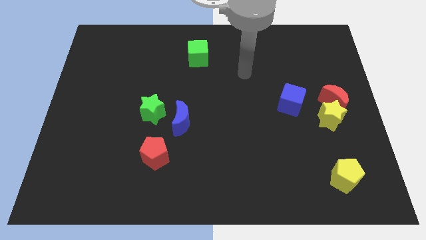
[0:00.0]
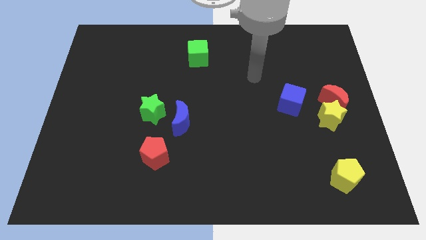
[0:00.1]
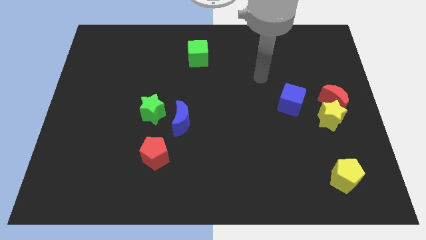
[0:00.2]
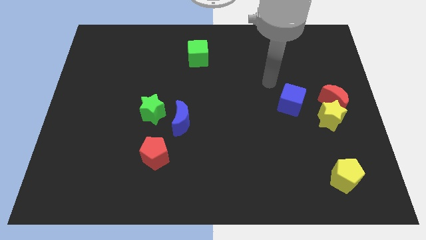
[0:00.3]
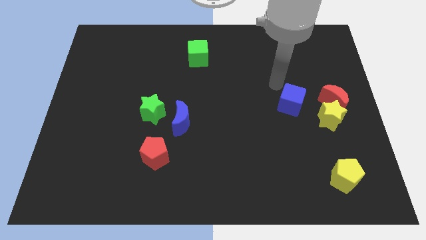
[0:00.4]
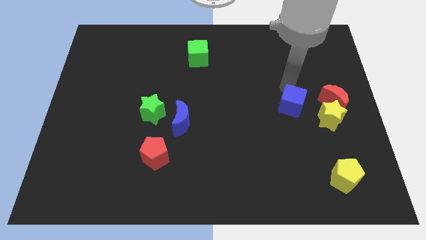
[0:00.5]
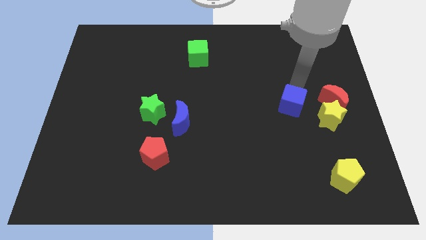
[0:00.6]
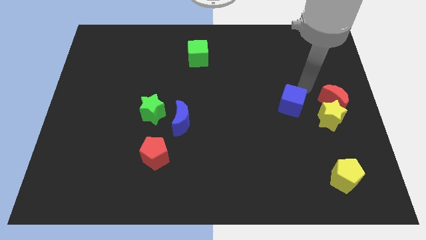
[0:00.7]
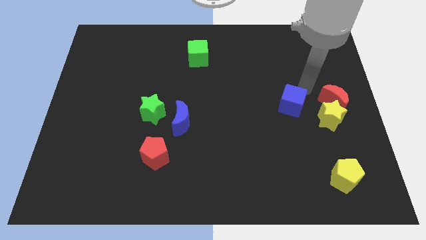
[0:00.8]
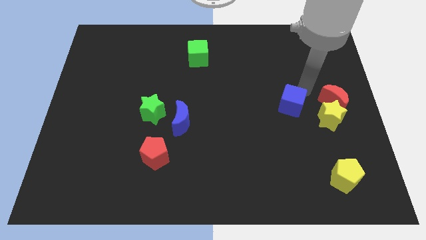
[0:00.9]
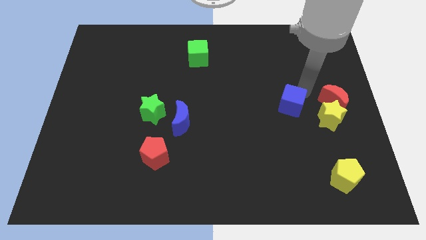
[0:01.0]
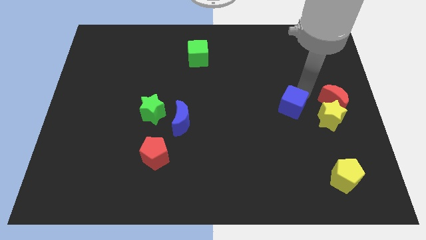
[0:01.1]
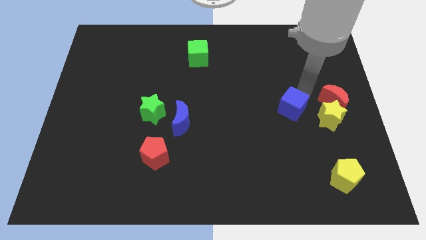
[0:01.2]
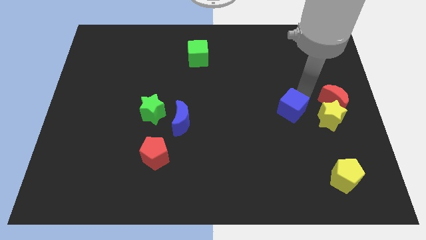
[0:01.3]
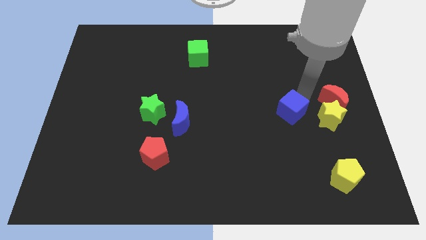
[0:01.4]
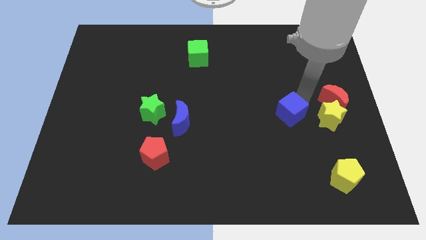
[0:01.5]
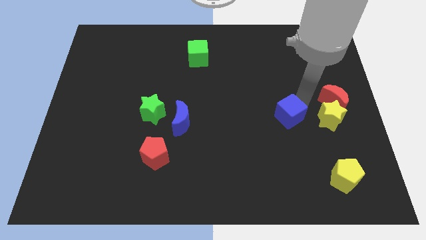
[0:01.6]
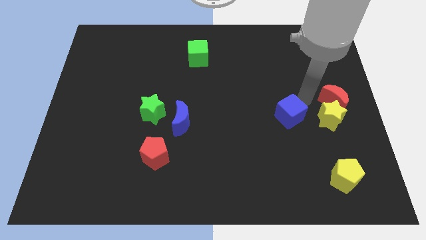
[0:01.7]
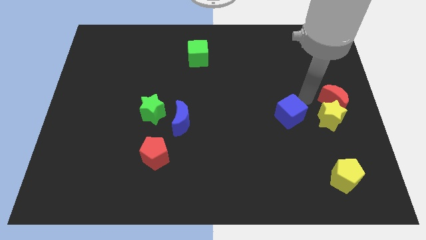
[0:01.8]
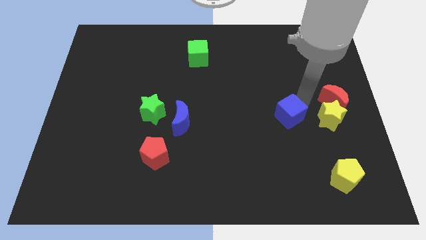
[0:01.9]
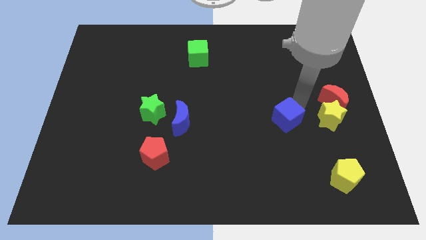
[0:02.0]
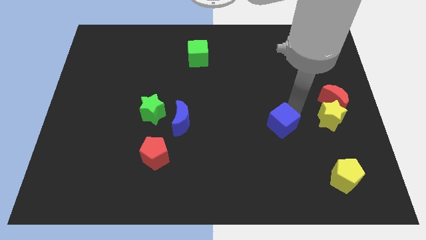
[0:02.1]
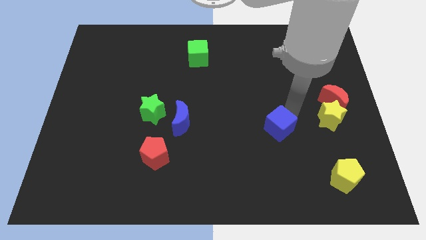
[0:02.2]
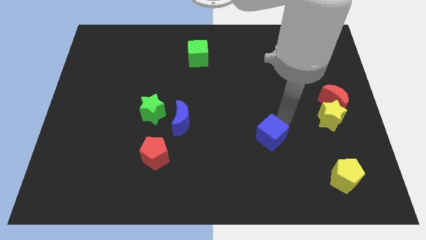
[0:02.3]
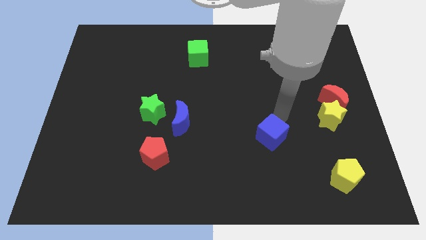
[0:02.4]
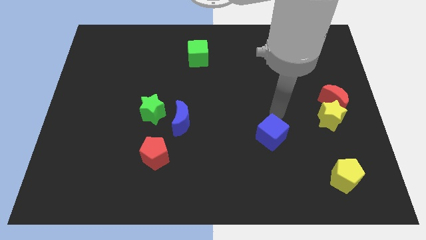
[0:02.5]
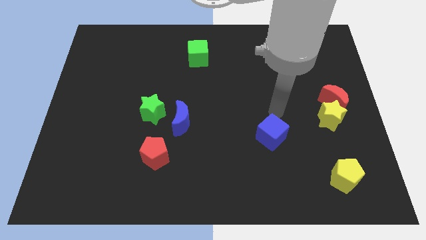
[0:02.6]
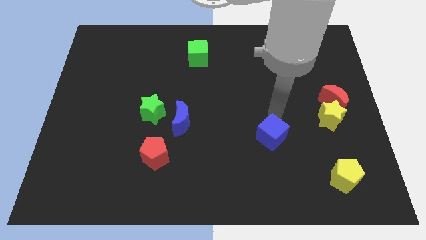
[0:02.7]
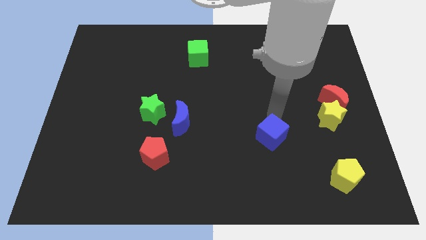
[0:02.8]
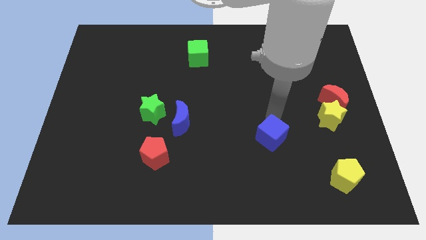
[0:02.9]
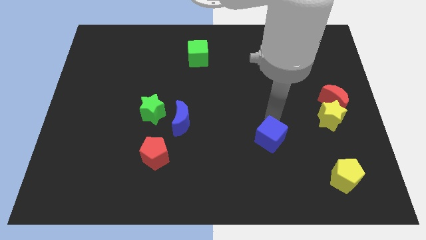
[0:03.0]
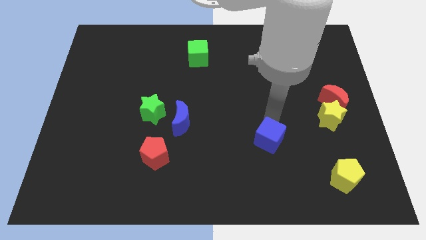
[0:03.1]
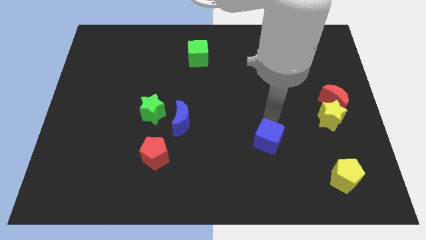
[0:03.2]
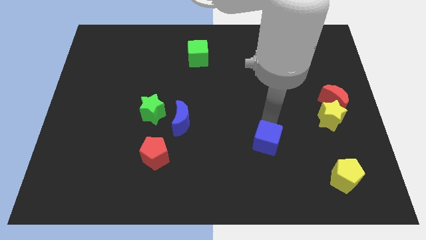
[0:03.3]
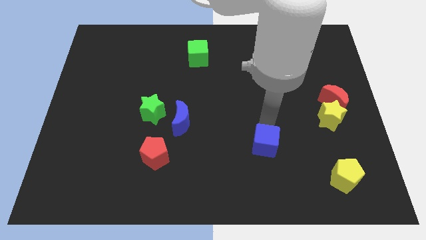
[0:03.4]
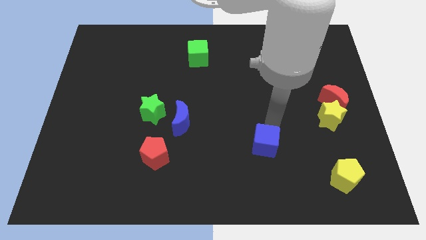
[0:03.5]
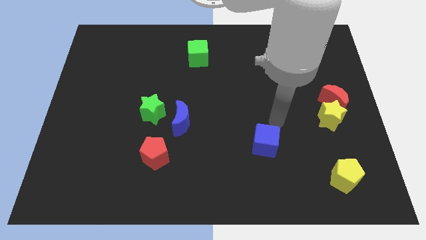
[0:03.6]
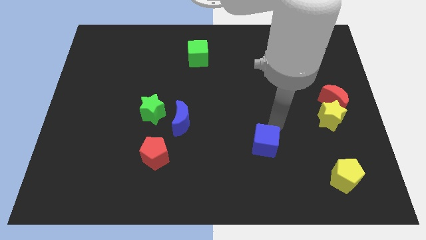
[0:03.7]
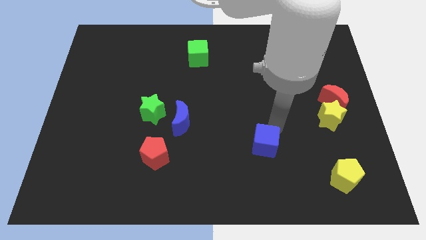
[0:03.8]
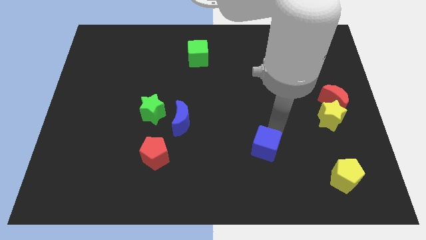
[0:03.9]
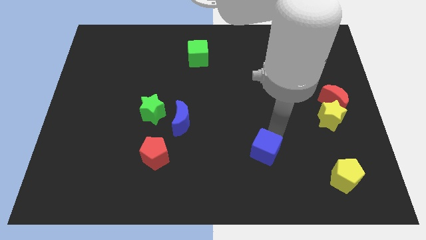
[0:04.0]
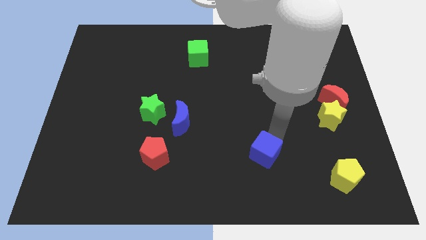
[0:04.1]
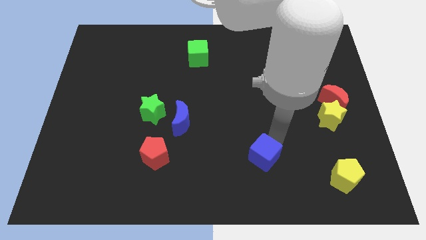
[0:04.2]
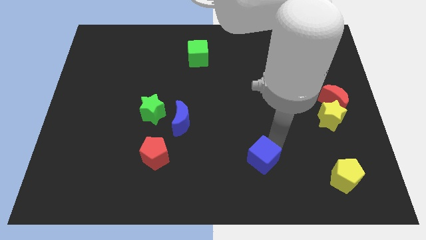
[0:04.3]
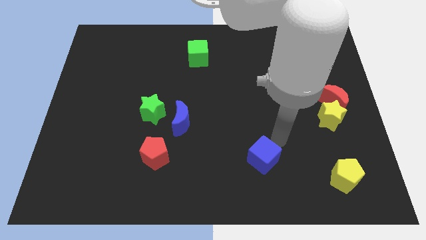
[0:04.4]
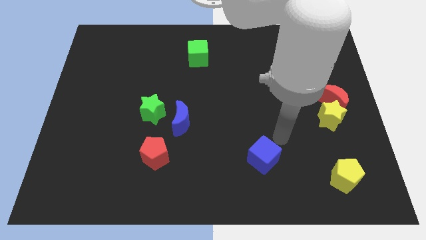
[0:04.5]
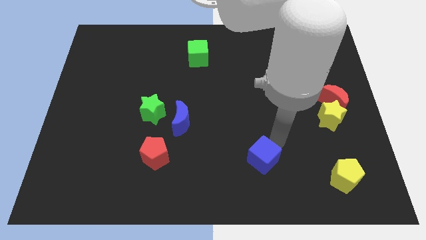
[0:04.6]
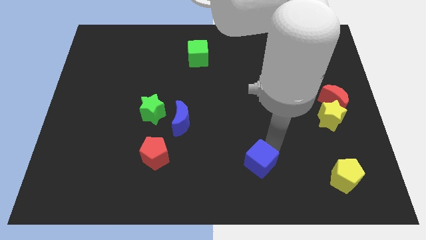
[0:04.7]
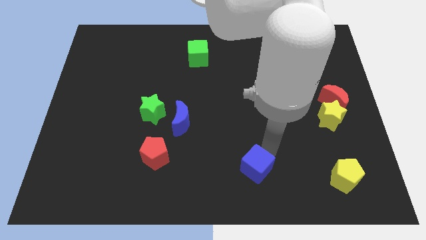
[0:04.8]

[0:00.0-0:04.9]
move the blue cube to the bottom side

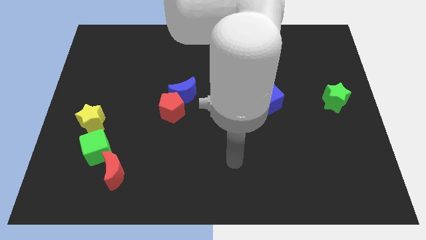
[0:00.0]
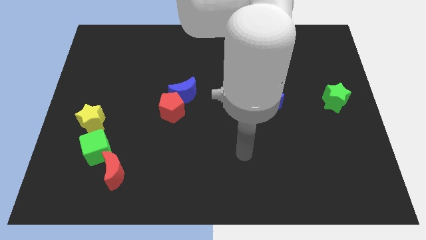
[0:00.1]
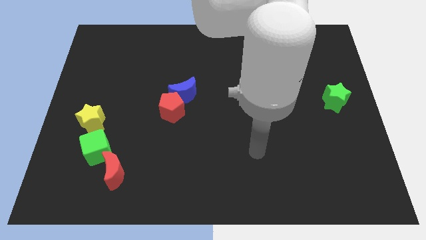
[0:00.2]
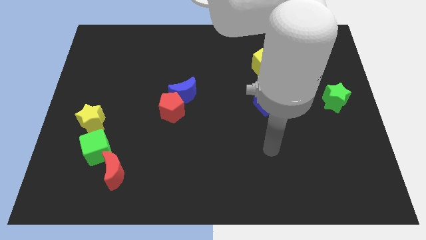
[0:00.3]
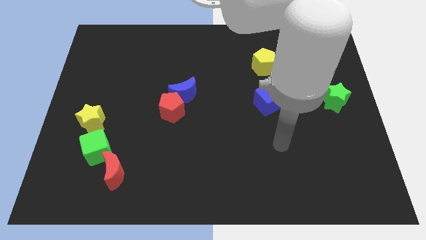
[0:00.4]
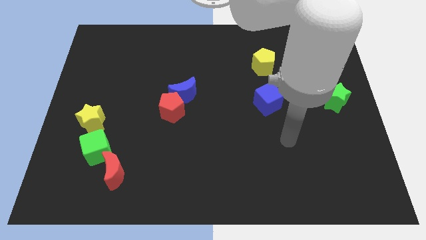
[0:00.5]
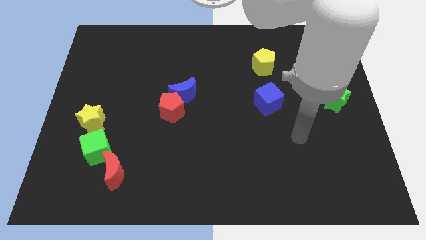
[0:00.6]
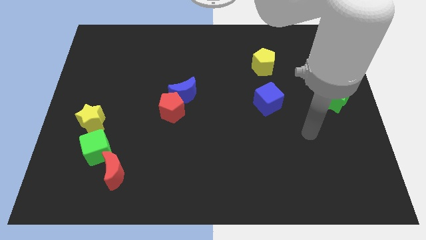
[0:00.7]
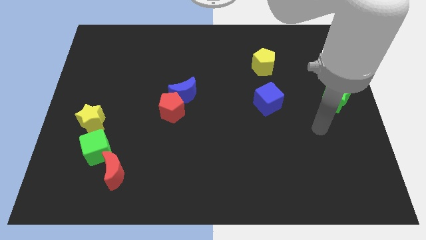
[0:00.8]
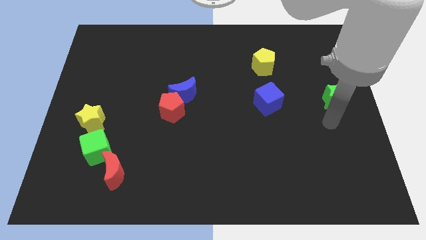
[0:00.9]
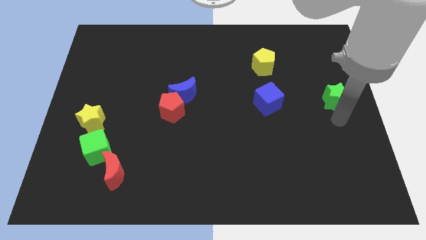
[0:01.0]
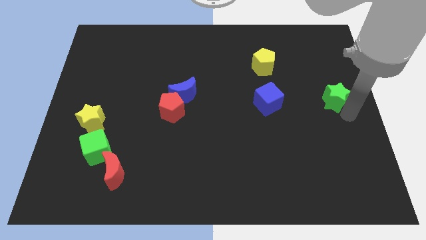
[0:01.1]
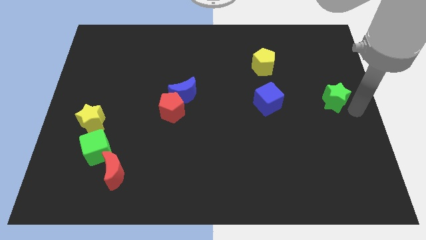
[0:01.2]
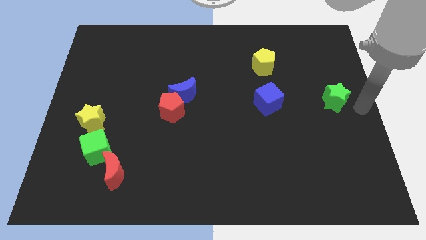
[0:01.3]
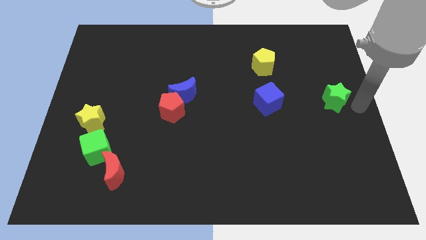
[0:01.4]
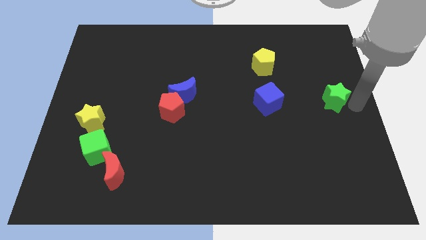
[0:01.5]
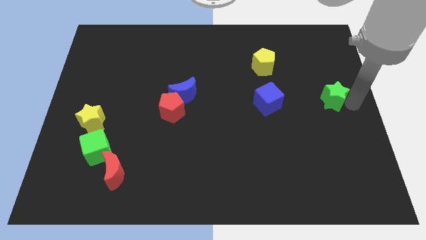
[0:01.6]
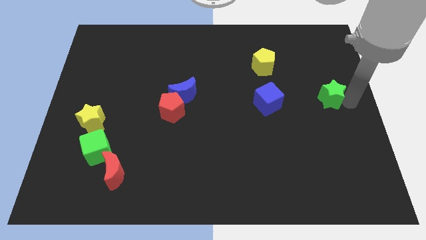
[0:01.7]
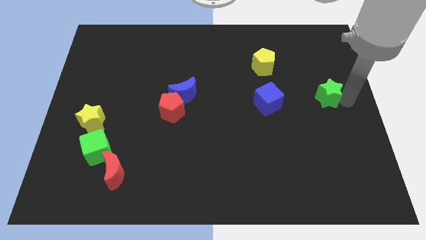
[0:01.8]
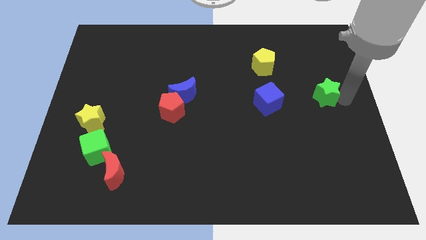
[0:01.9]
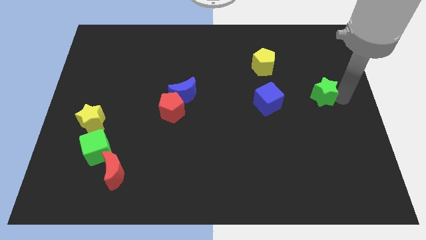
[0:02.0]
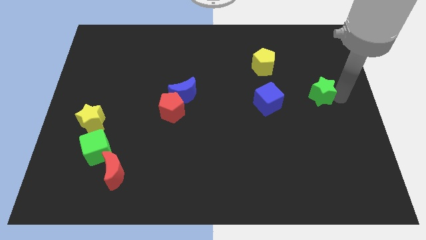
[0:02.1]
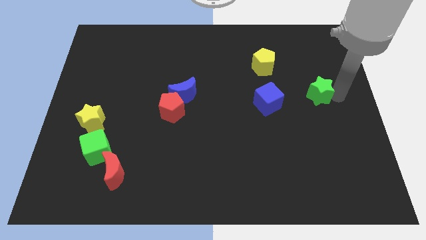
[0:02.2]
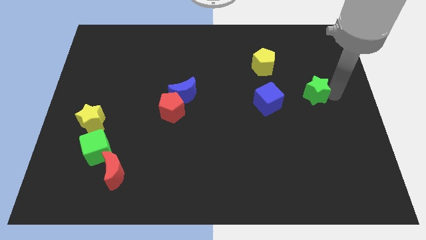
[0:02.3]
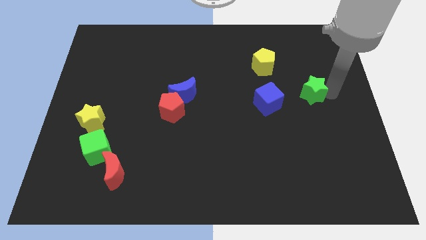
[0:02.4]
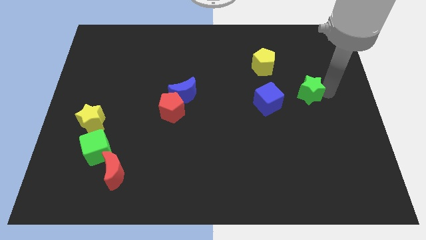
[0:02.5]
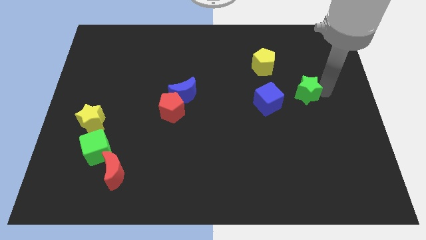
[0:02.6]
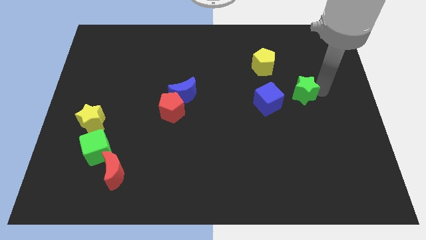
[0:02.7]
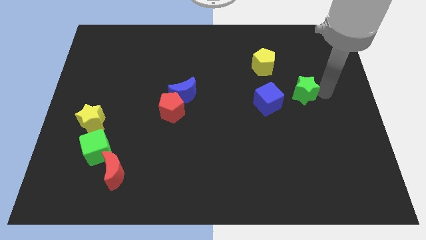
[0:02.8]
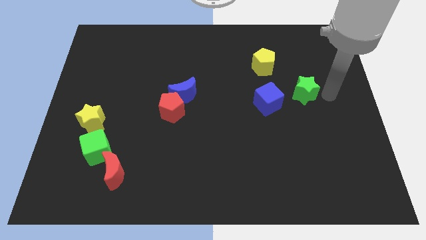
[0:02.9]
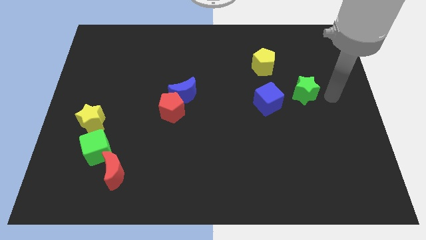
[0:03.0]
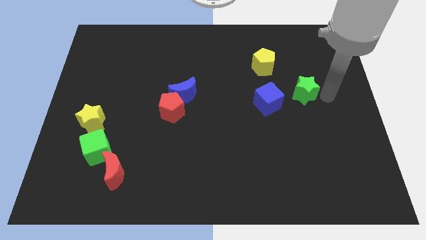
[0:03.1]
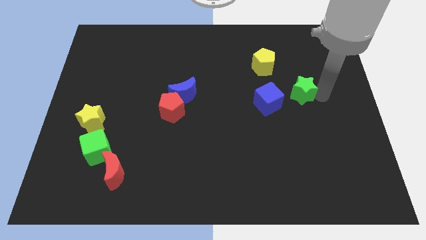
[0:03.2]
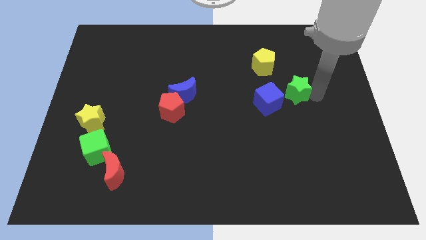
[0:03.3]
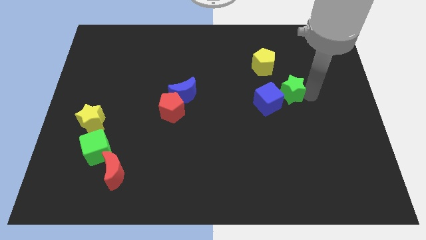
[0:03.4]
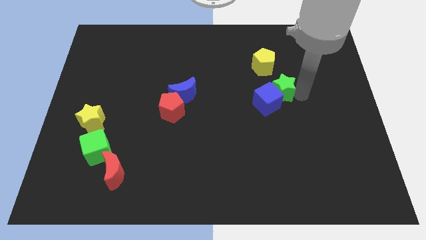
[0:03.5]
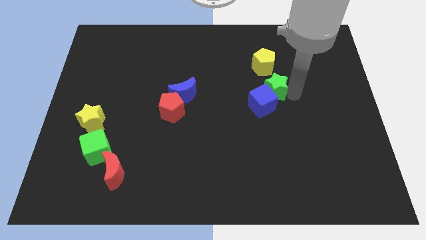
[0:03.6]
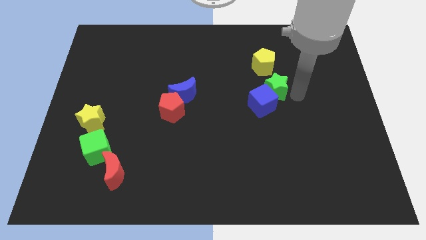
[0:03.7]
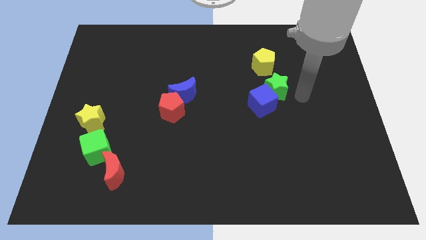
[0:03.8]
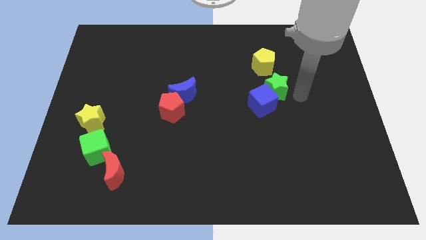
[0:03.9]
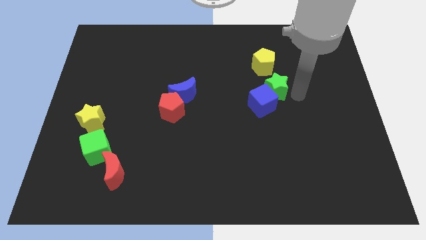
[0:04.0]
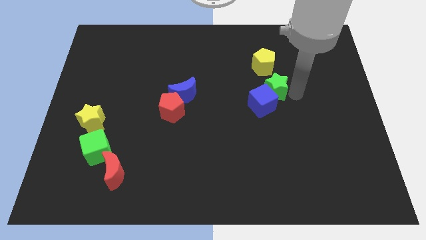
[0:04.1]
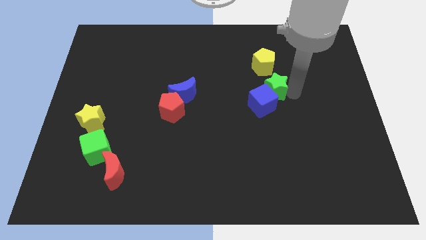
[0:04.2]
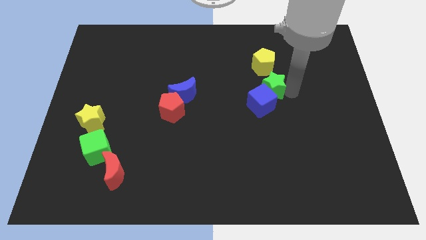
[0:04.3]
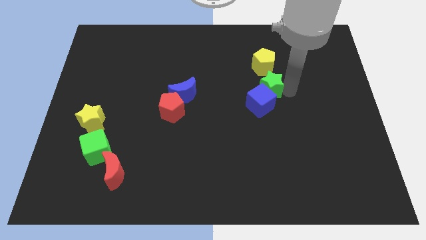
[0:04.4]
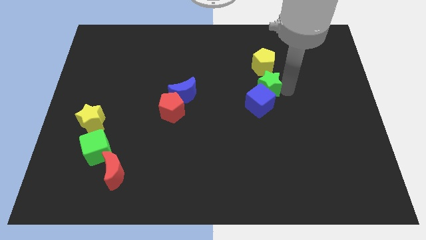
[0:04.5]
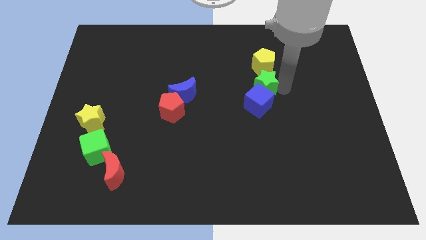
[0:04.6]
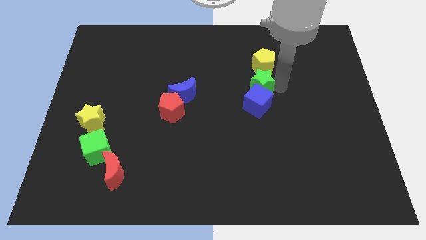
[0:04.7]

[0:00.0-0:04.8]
put the green star to the center
